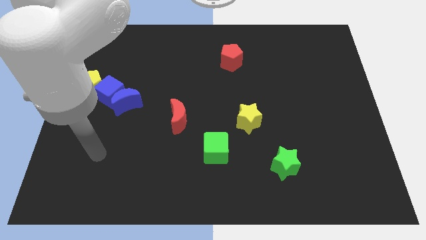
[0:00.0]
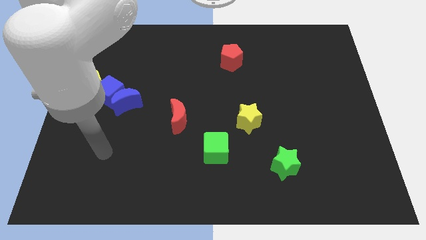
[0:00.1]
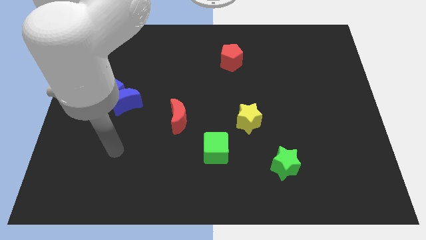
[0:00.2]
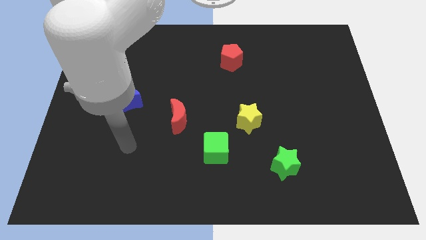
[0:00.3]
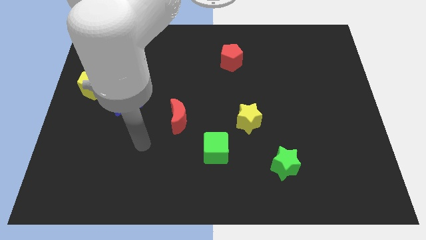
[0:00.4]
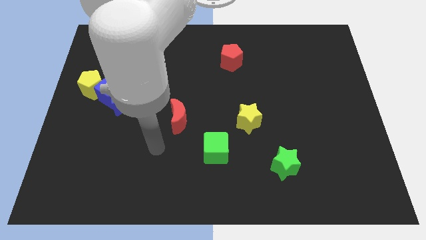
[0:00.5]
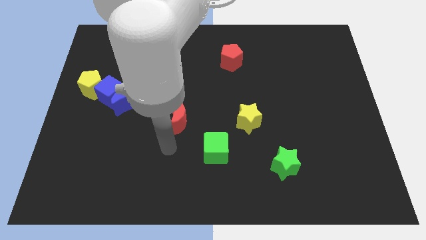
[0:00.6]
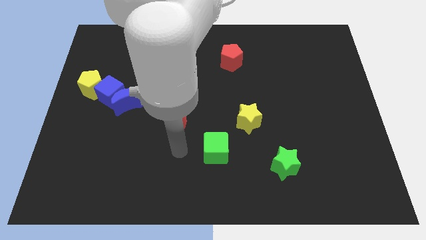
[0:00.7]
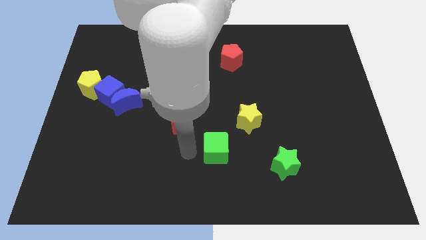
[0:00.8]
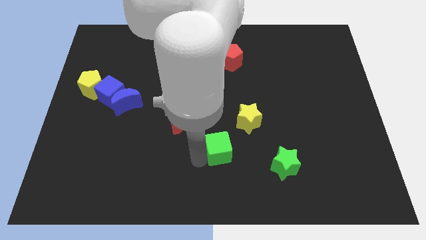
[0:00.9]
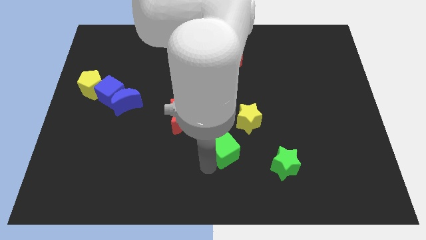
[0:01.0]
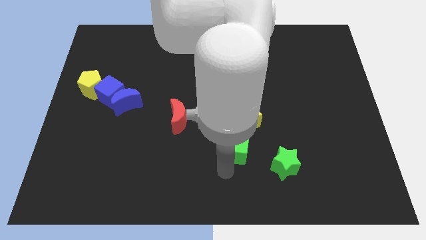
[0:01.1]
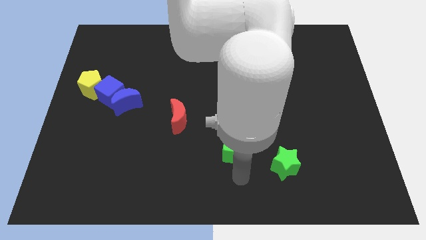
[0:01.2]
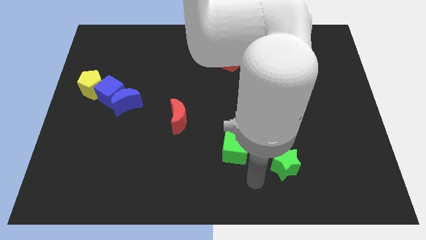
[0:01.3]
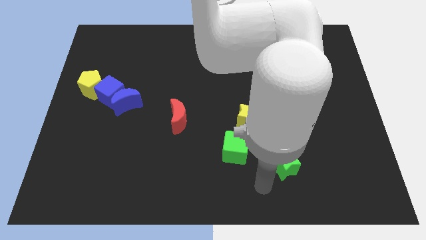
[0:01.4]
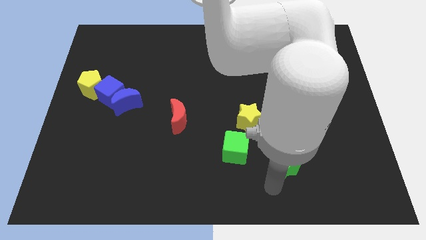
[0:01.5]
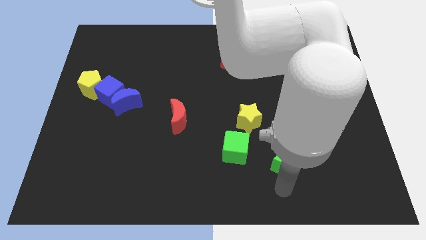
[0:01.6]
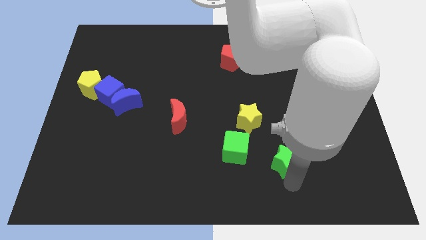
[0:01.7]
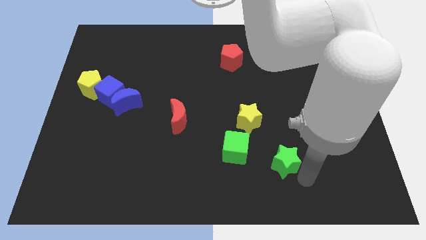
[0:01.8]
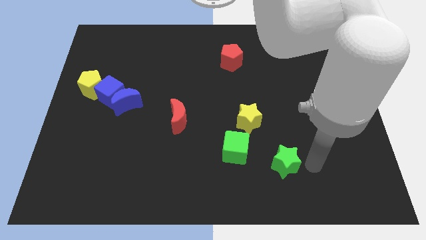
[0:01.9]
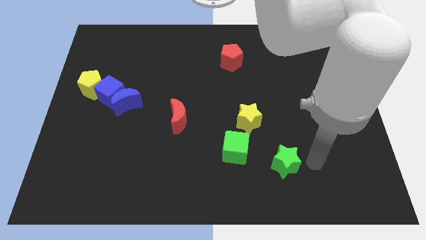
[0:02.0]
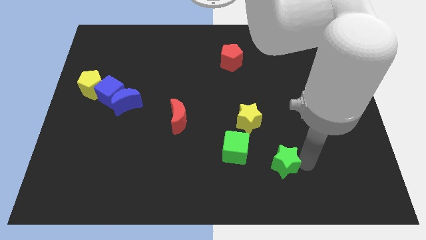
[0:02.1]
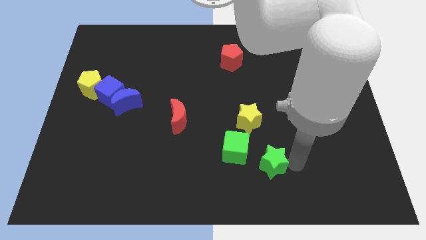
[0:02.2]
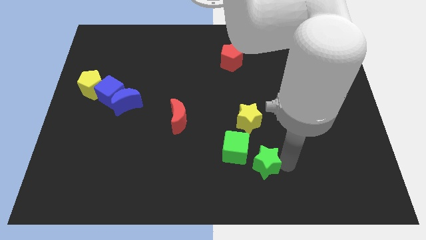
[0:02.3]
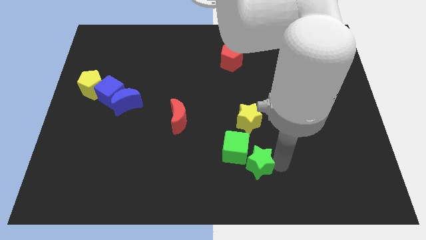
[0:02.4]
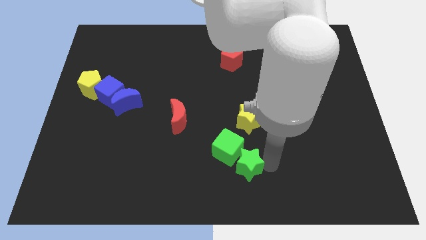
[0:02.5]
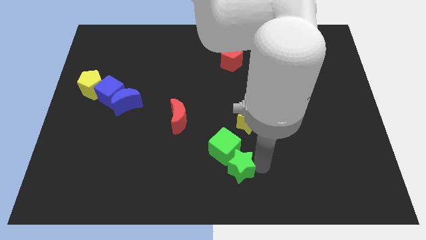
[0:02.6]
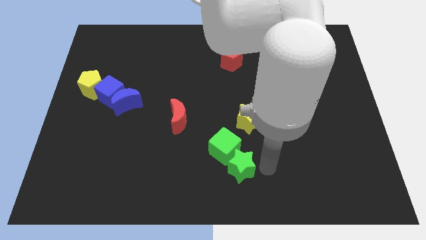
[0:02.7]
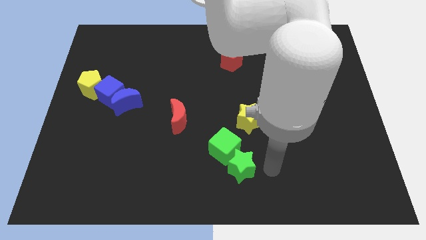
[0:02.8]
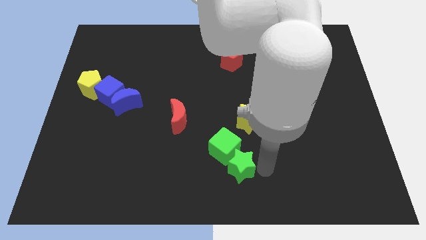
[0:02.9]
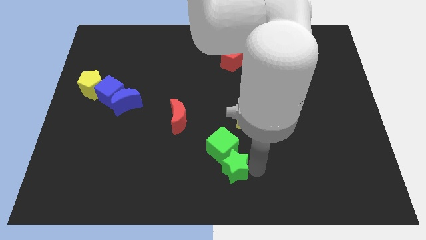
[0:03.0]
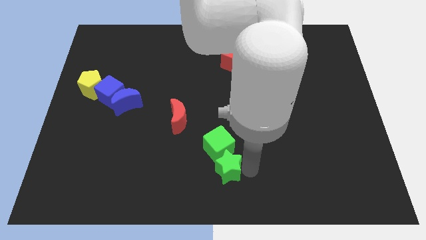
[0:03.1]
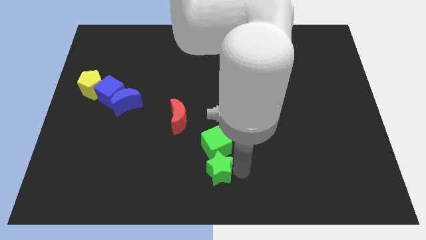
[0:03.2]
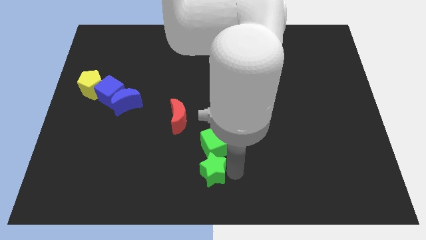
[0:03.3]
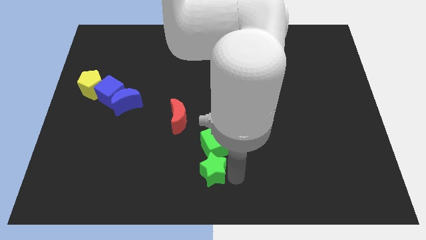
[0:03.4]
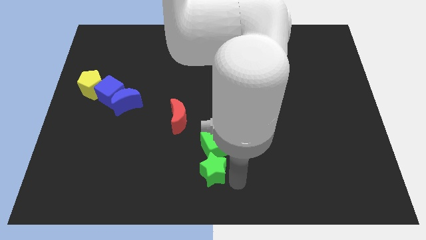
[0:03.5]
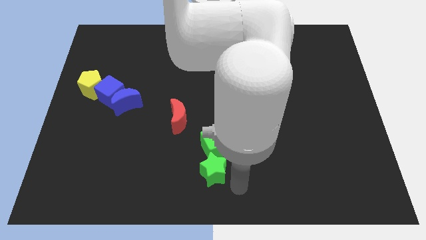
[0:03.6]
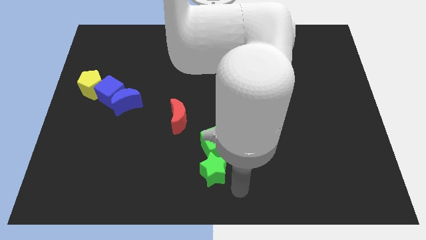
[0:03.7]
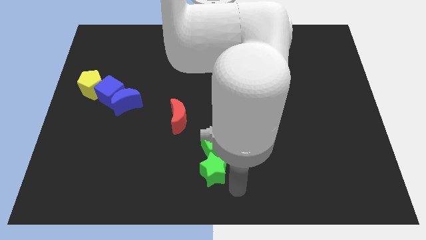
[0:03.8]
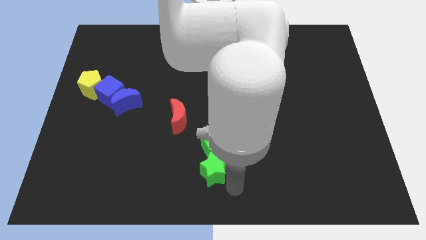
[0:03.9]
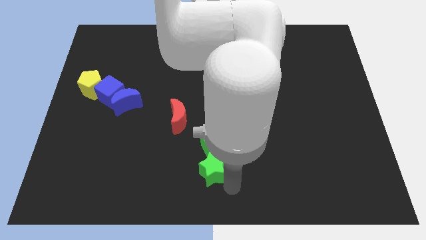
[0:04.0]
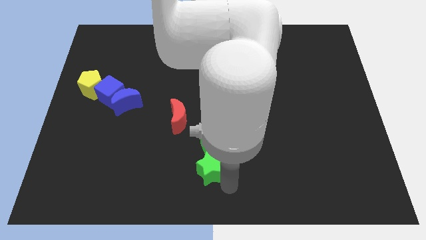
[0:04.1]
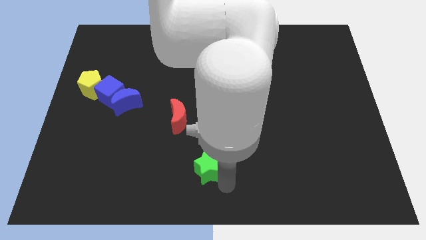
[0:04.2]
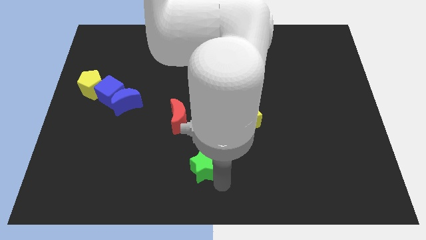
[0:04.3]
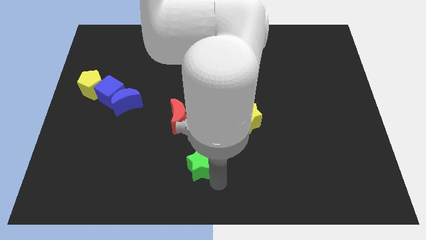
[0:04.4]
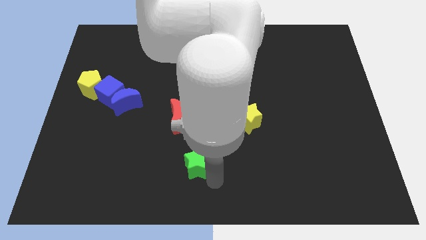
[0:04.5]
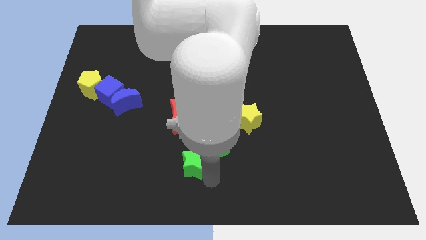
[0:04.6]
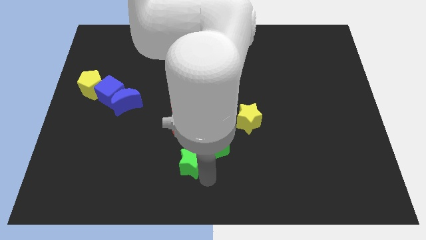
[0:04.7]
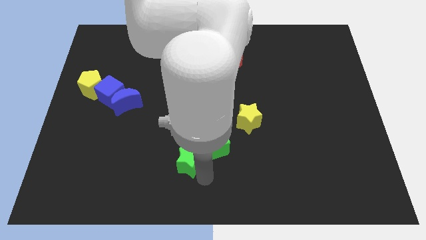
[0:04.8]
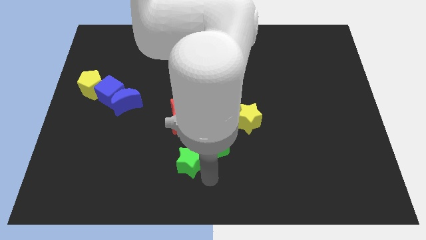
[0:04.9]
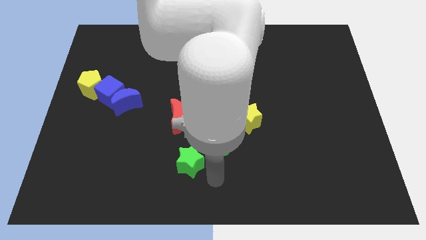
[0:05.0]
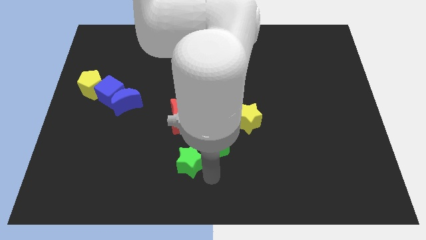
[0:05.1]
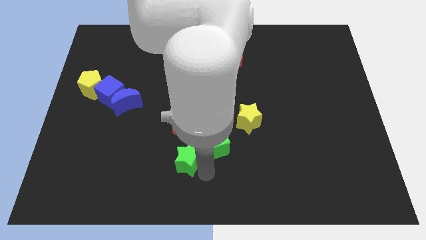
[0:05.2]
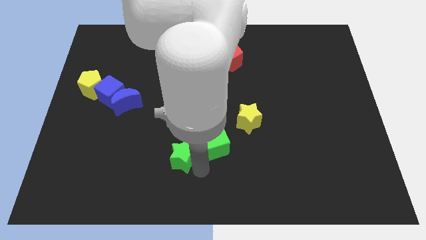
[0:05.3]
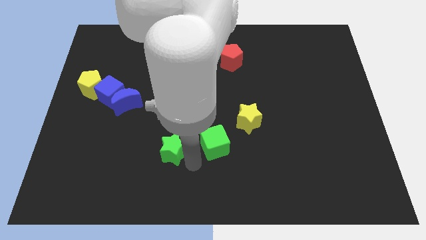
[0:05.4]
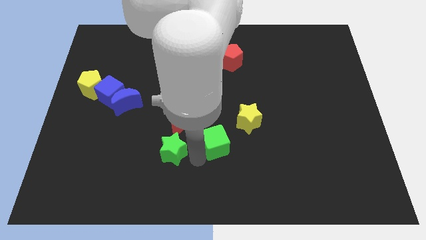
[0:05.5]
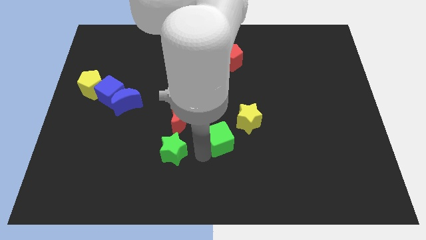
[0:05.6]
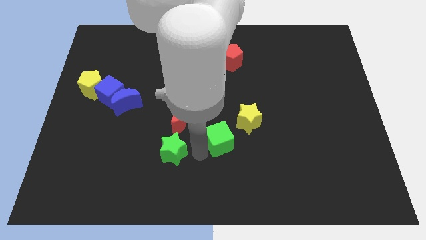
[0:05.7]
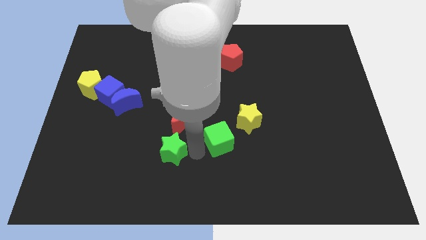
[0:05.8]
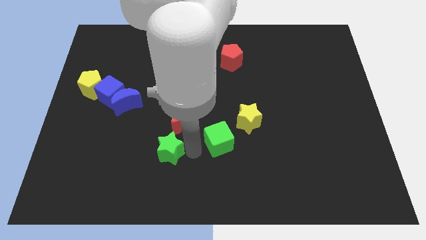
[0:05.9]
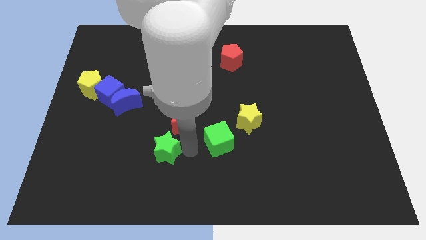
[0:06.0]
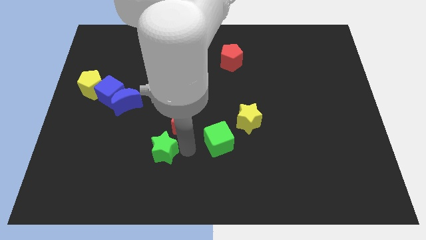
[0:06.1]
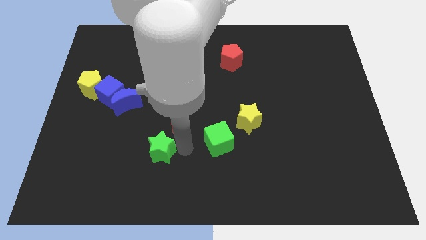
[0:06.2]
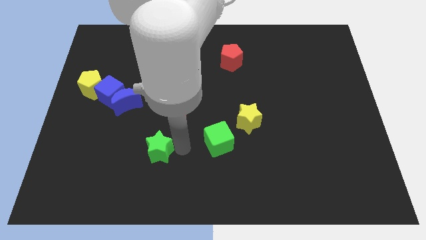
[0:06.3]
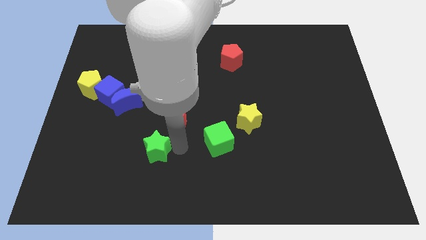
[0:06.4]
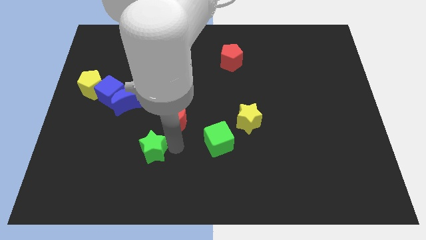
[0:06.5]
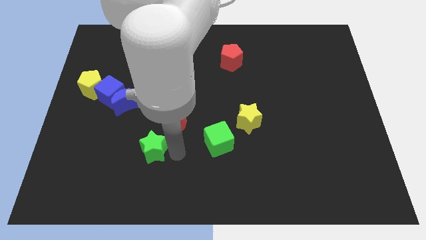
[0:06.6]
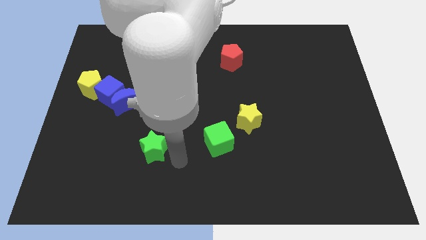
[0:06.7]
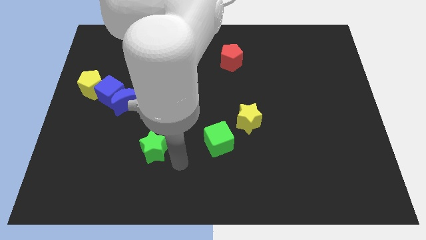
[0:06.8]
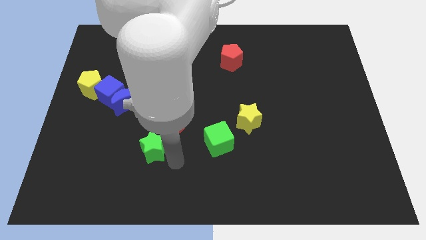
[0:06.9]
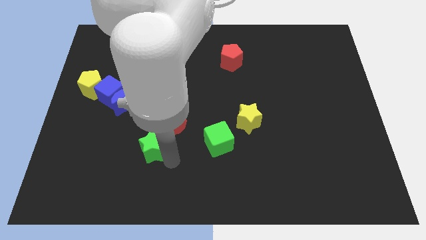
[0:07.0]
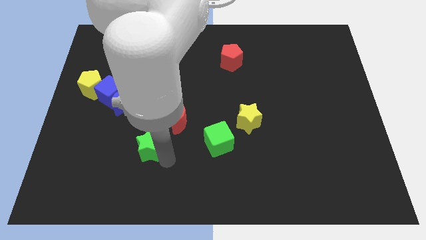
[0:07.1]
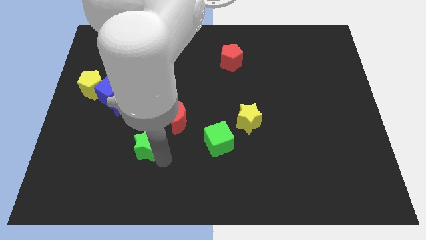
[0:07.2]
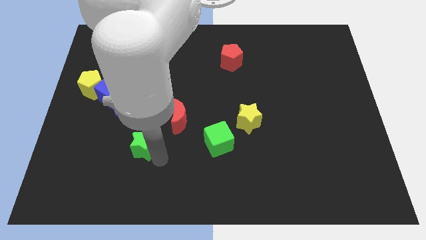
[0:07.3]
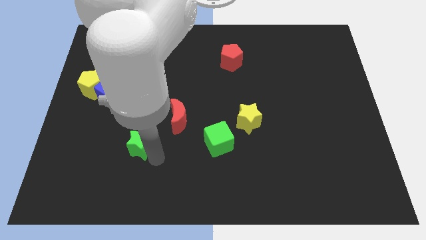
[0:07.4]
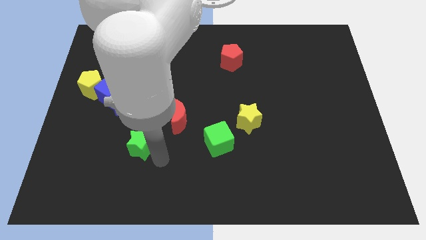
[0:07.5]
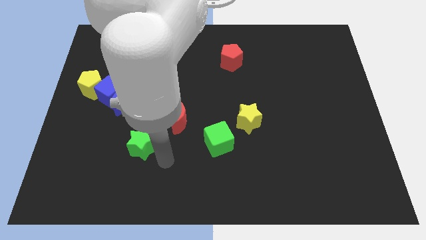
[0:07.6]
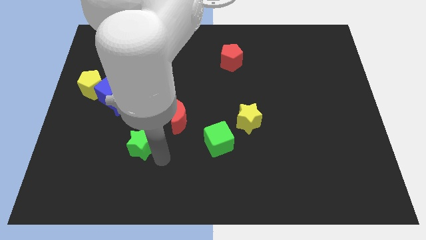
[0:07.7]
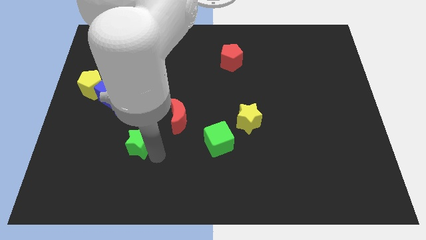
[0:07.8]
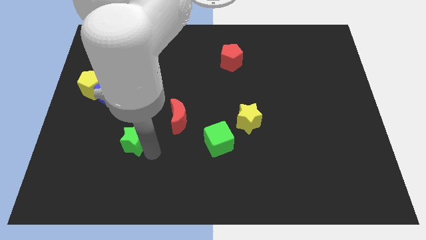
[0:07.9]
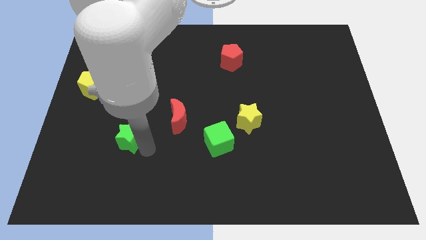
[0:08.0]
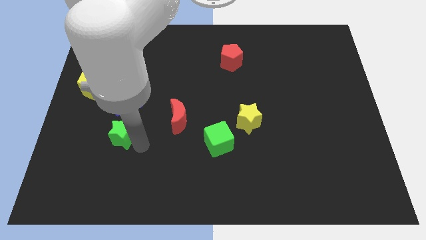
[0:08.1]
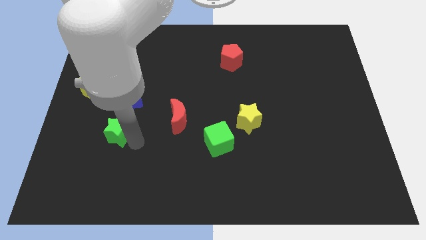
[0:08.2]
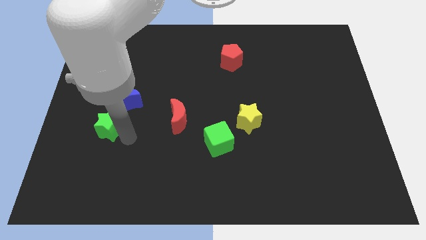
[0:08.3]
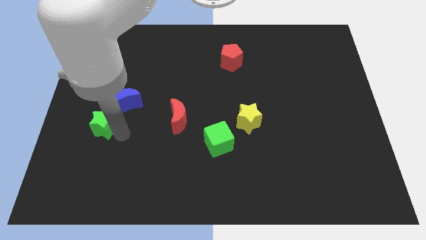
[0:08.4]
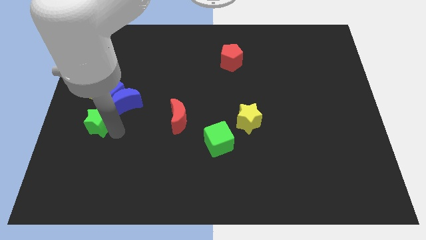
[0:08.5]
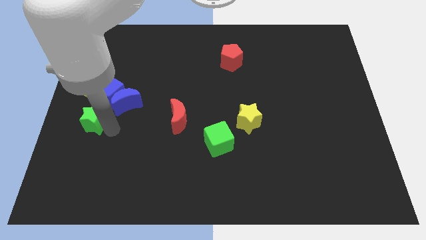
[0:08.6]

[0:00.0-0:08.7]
push the green star to the left side
